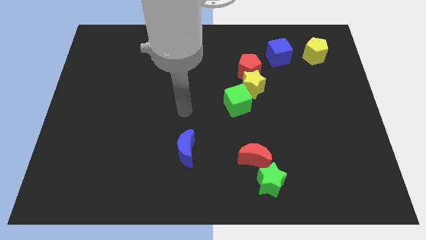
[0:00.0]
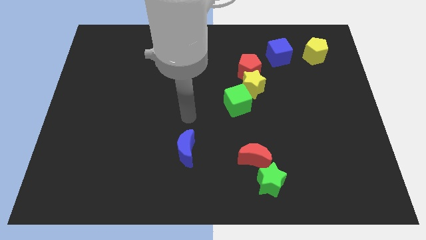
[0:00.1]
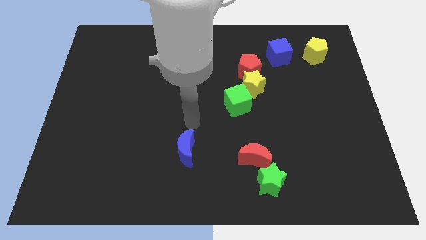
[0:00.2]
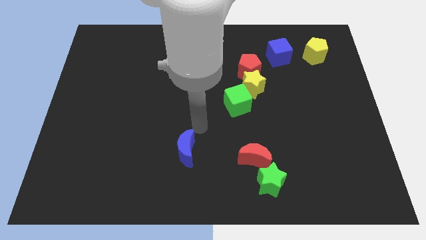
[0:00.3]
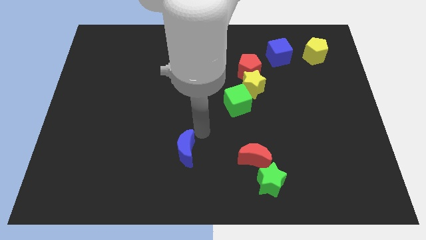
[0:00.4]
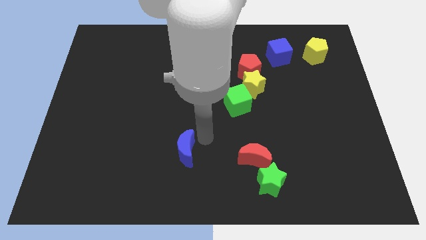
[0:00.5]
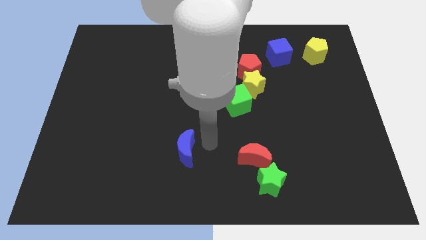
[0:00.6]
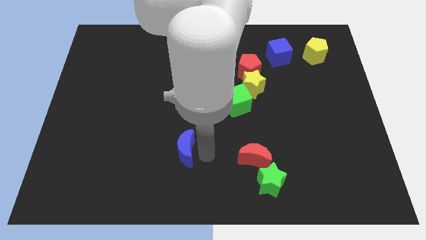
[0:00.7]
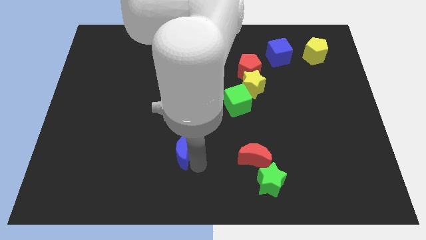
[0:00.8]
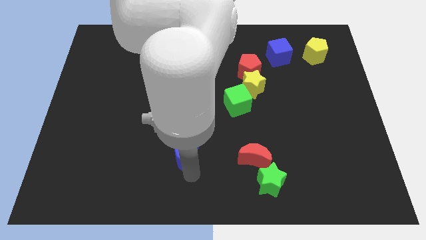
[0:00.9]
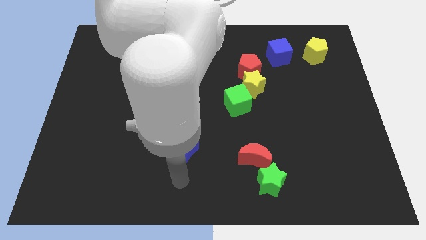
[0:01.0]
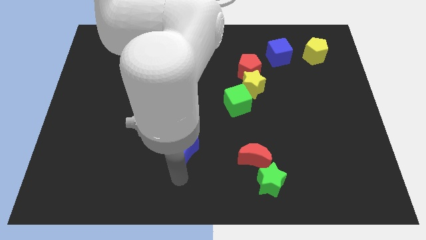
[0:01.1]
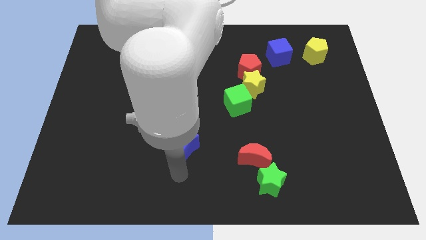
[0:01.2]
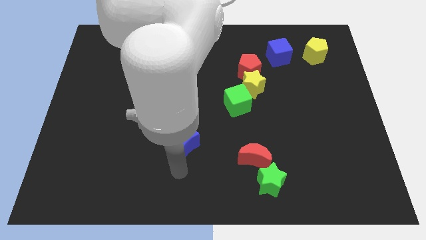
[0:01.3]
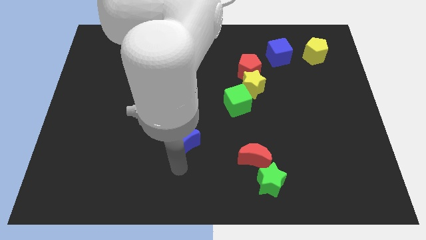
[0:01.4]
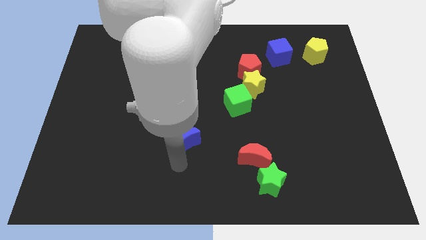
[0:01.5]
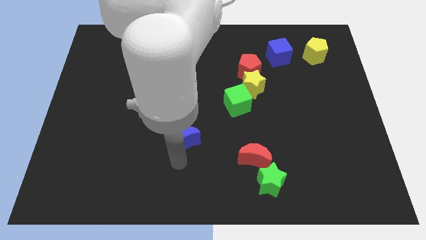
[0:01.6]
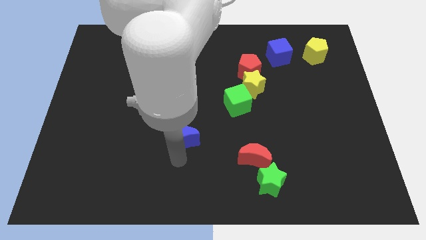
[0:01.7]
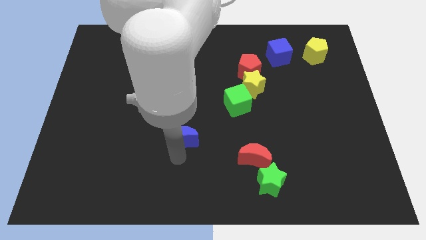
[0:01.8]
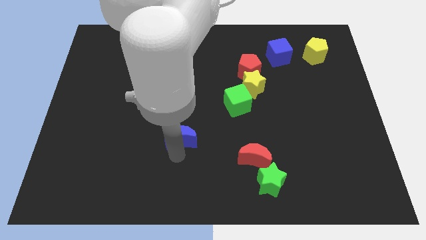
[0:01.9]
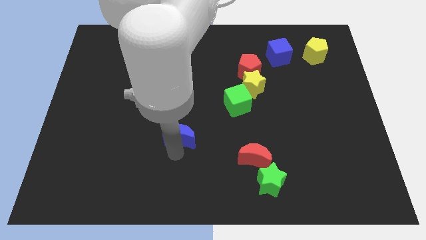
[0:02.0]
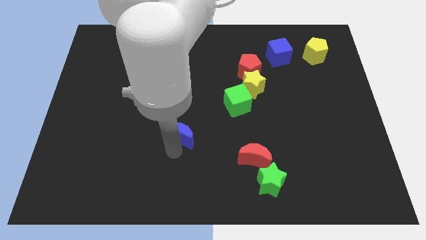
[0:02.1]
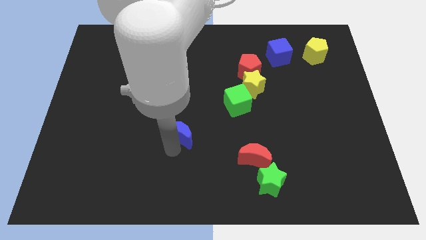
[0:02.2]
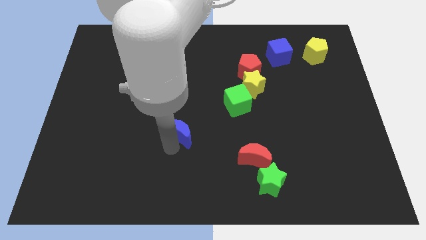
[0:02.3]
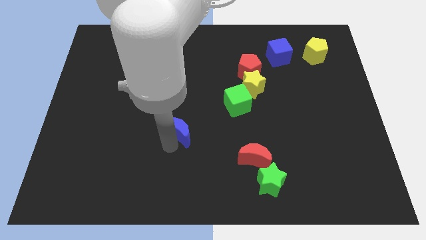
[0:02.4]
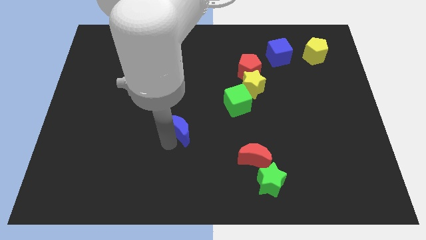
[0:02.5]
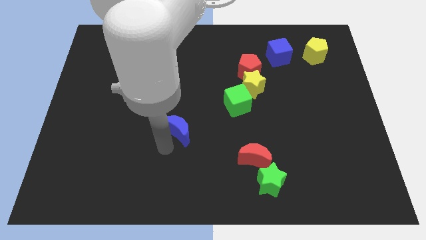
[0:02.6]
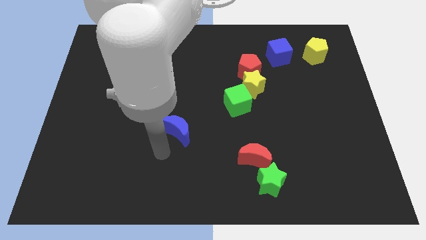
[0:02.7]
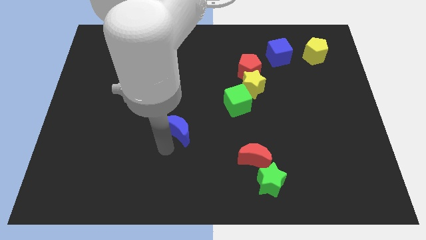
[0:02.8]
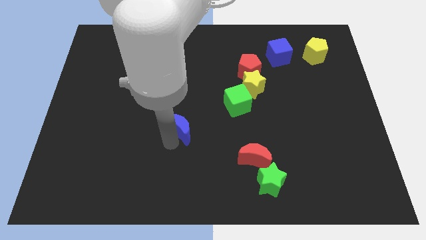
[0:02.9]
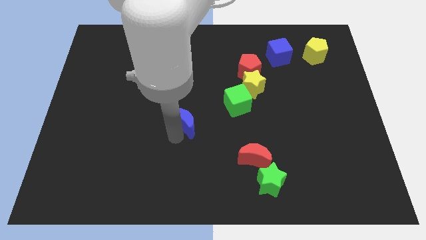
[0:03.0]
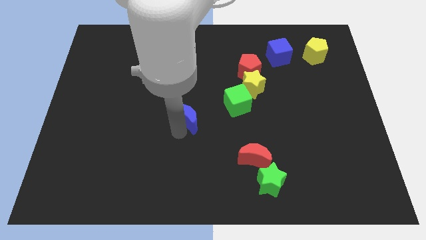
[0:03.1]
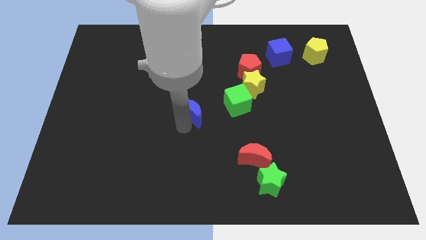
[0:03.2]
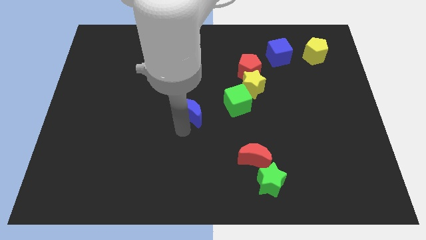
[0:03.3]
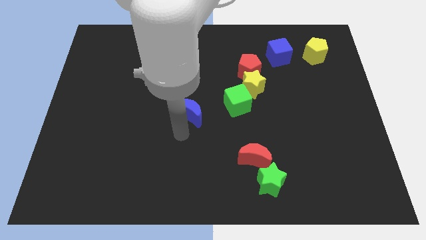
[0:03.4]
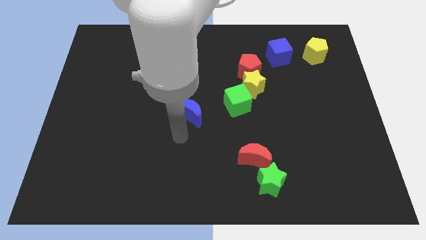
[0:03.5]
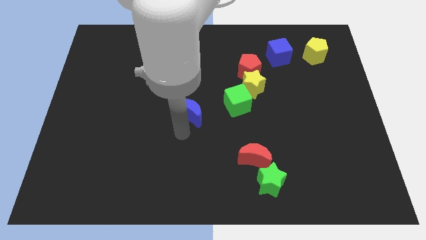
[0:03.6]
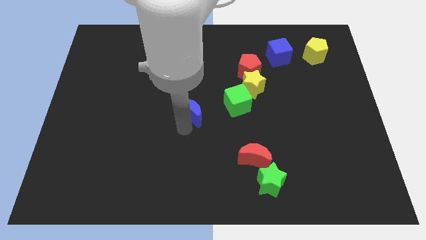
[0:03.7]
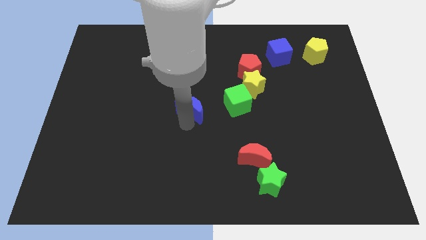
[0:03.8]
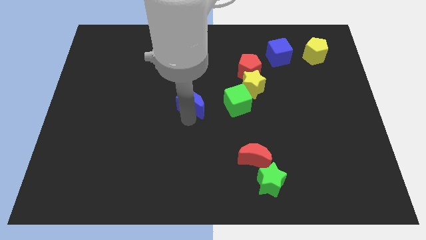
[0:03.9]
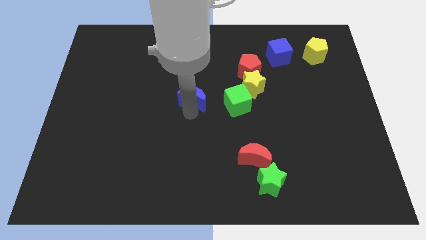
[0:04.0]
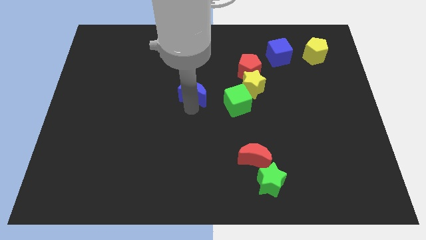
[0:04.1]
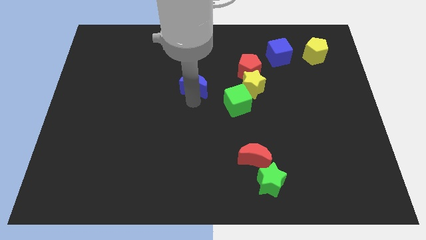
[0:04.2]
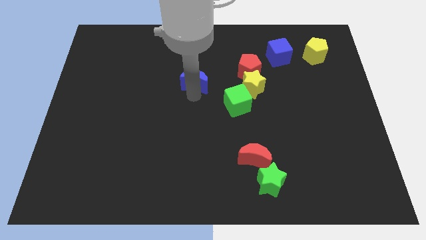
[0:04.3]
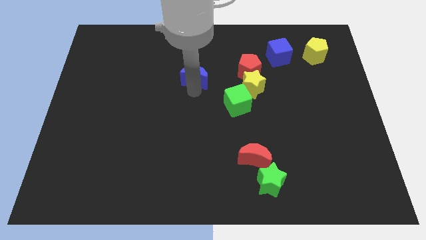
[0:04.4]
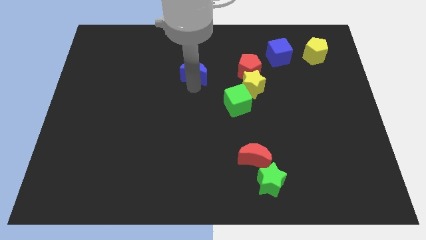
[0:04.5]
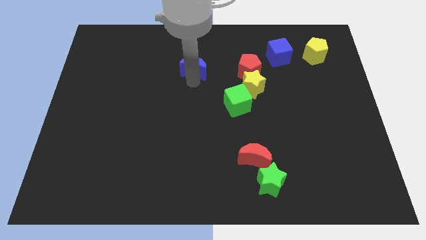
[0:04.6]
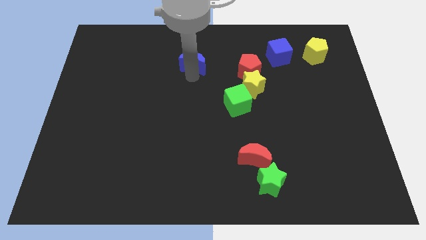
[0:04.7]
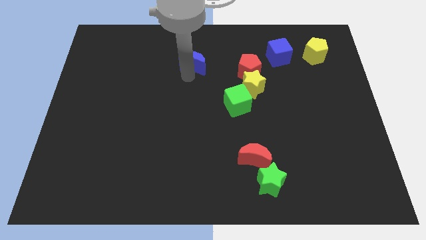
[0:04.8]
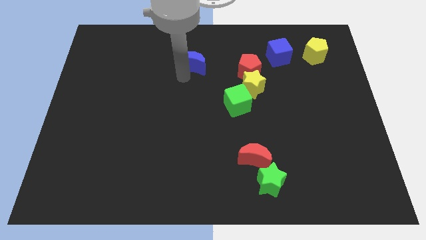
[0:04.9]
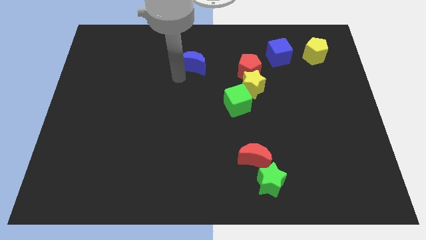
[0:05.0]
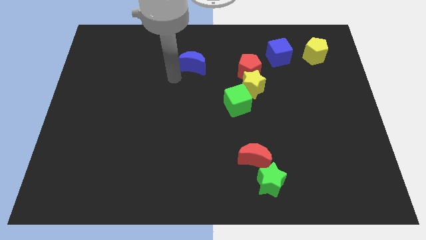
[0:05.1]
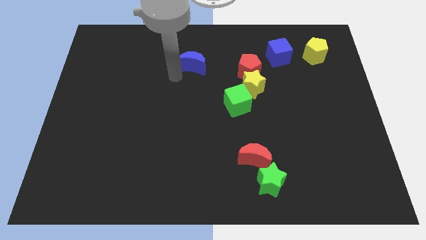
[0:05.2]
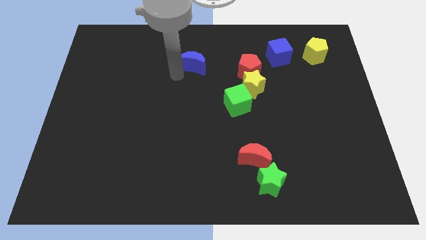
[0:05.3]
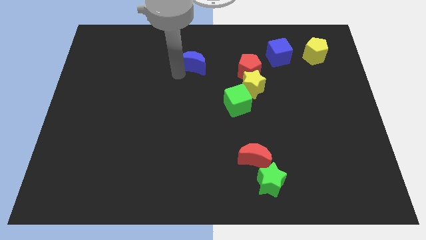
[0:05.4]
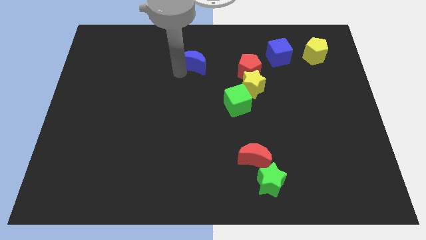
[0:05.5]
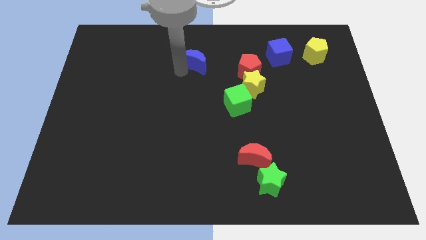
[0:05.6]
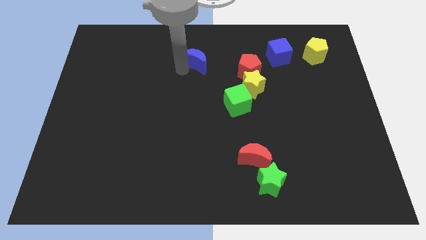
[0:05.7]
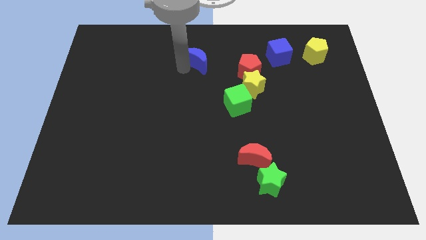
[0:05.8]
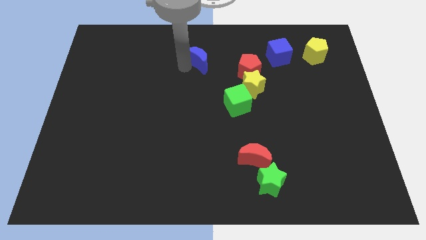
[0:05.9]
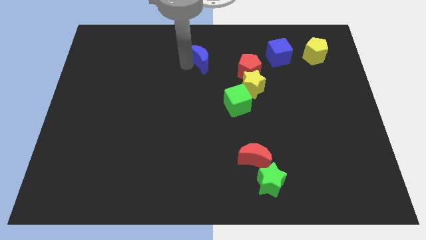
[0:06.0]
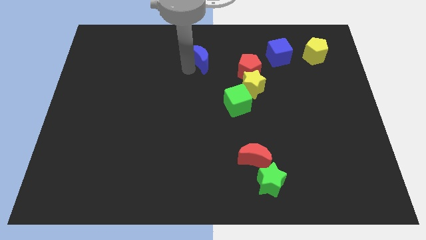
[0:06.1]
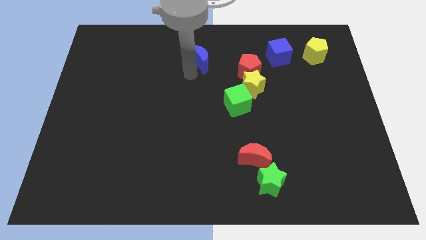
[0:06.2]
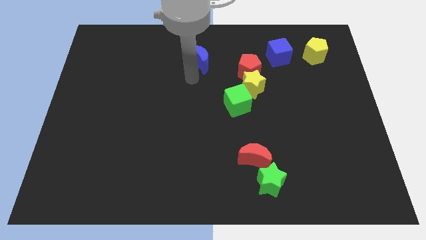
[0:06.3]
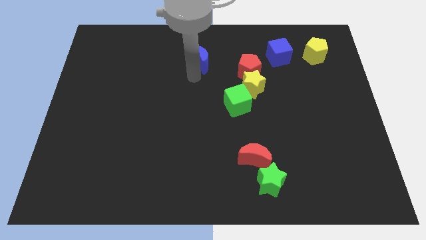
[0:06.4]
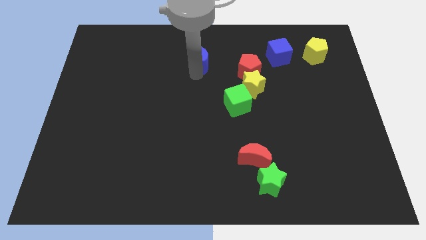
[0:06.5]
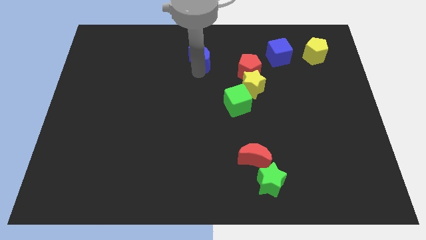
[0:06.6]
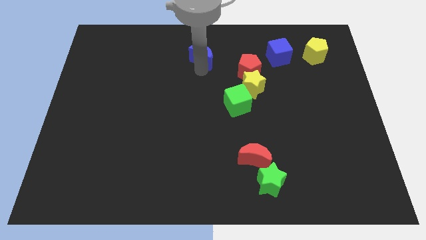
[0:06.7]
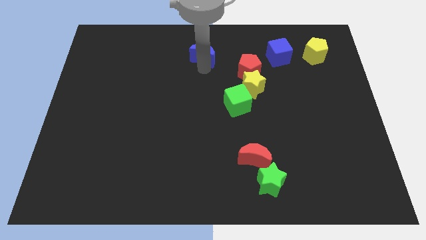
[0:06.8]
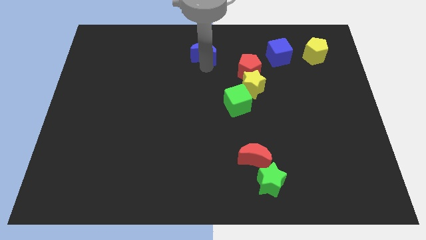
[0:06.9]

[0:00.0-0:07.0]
move the blue moon to the top
